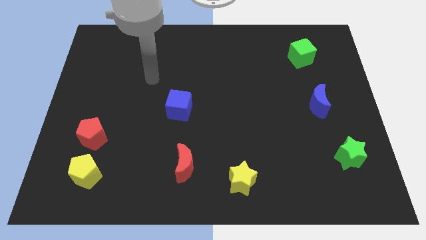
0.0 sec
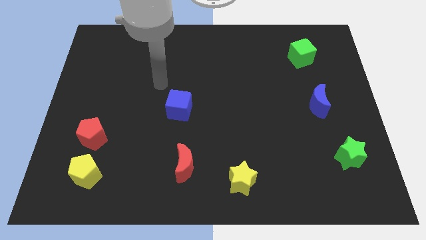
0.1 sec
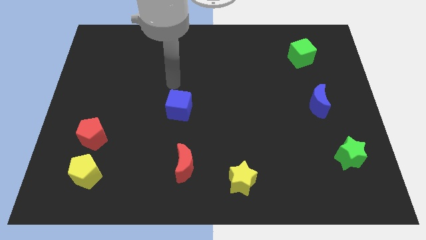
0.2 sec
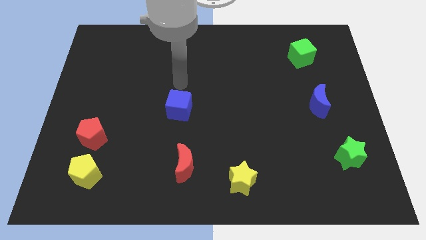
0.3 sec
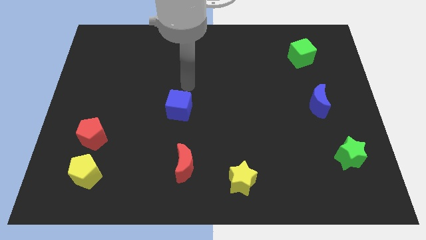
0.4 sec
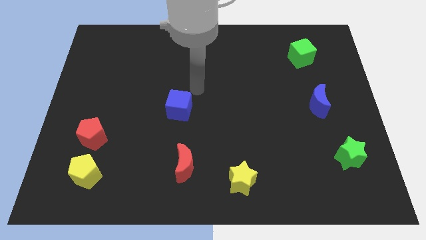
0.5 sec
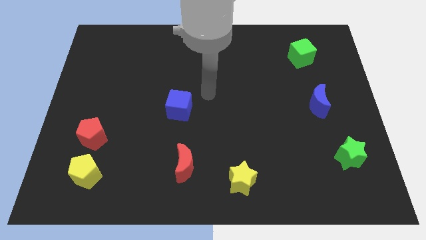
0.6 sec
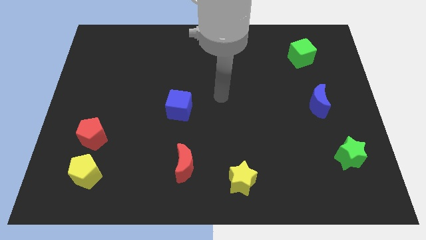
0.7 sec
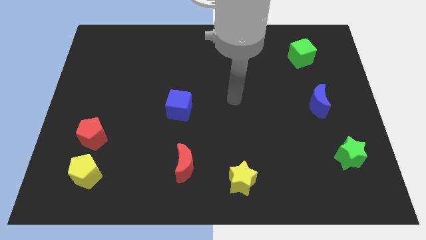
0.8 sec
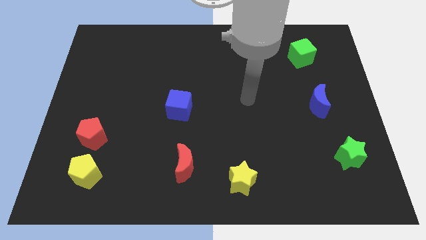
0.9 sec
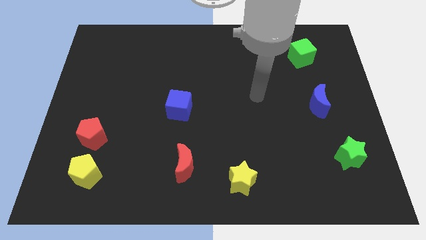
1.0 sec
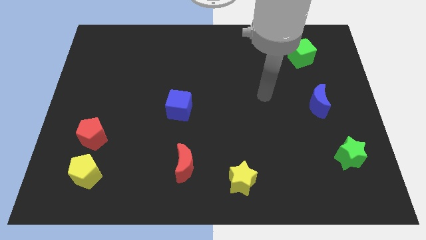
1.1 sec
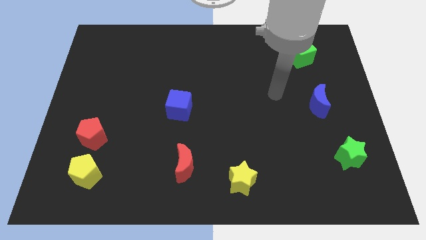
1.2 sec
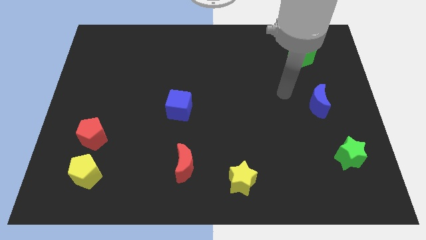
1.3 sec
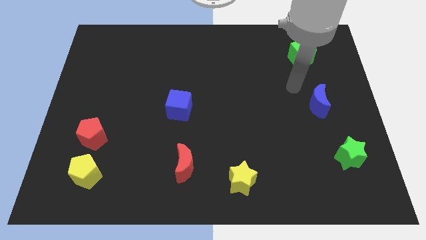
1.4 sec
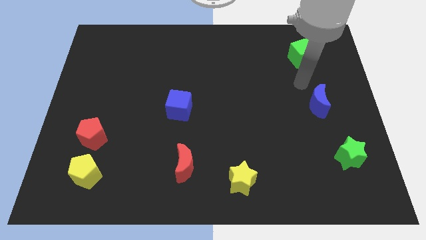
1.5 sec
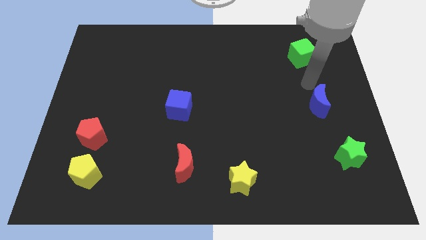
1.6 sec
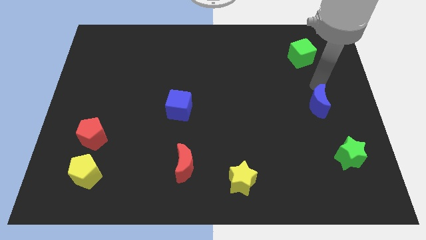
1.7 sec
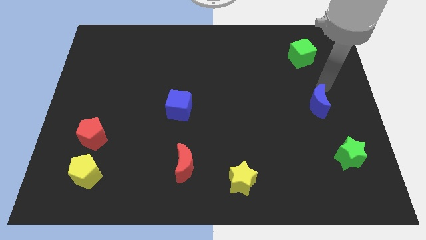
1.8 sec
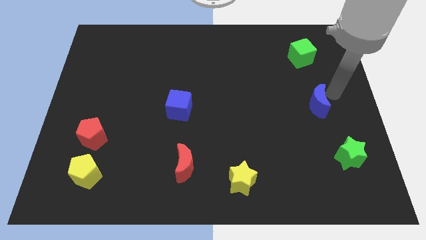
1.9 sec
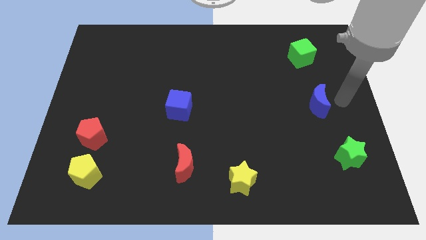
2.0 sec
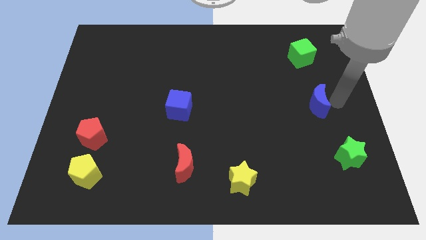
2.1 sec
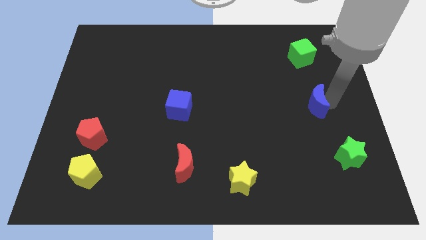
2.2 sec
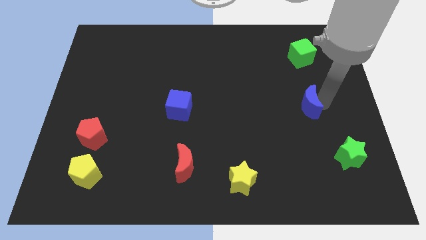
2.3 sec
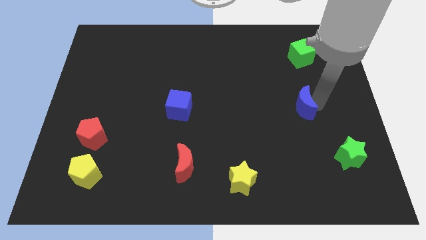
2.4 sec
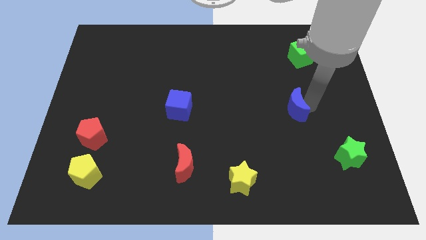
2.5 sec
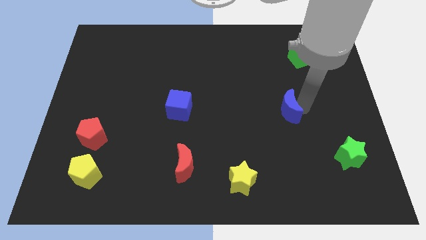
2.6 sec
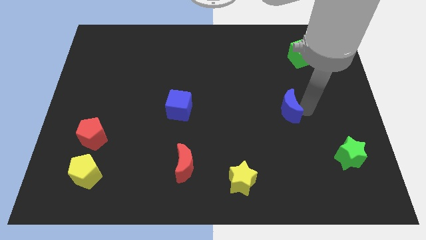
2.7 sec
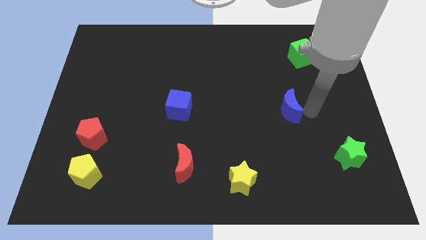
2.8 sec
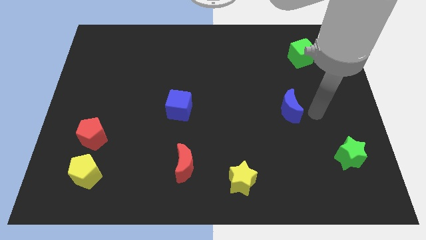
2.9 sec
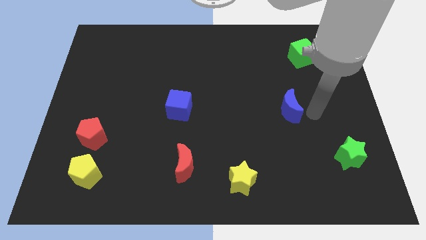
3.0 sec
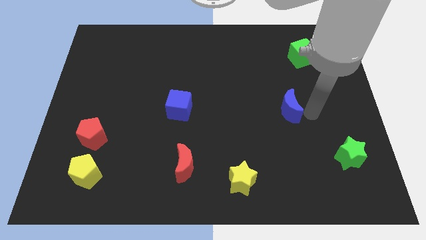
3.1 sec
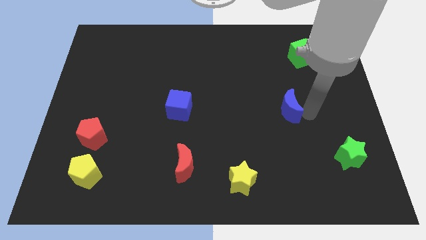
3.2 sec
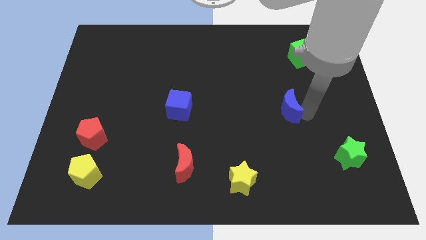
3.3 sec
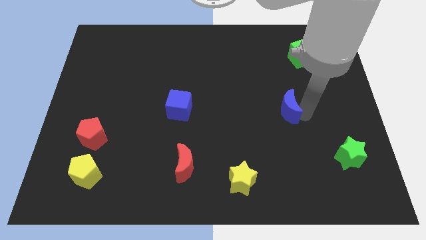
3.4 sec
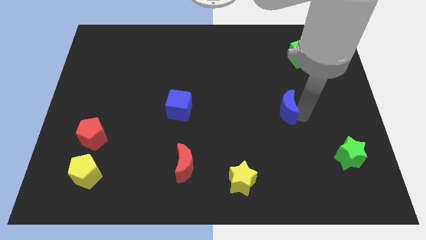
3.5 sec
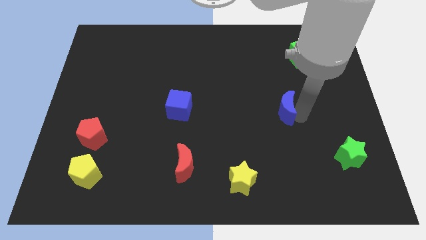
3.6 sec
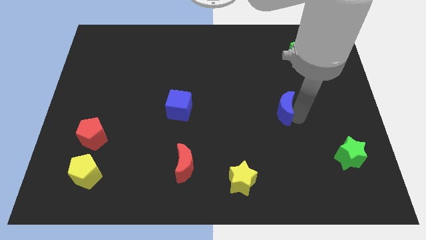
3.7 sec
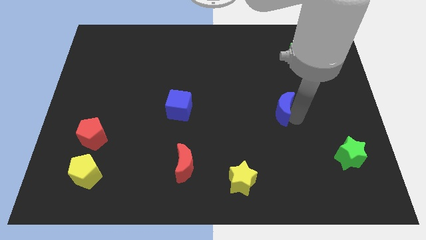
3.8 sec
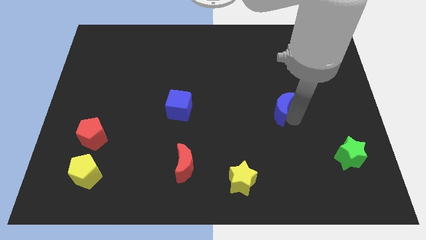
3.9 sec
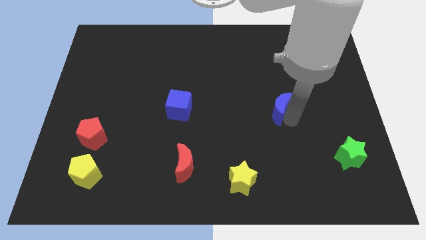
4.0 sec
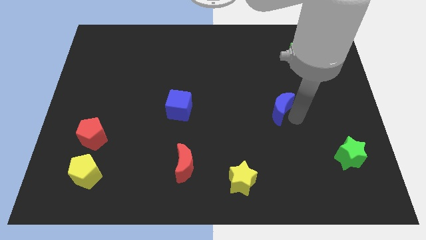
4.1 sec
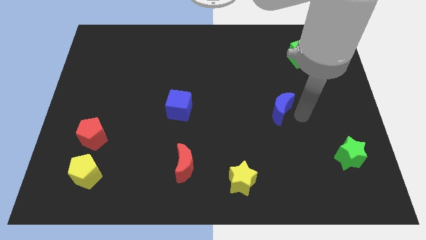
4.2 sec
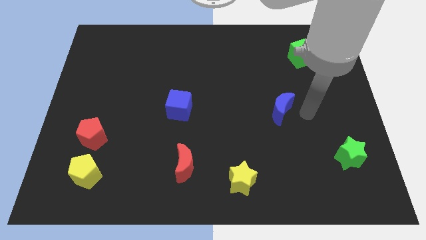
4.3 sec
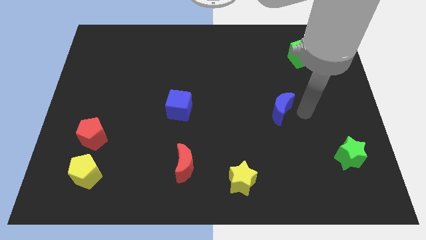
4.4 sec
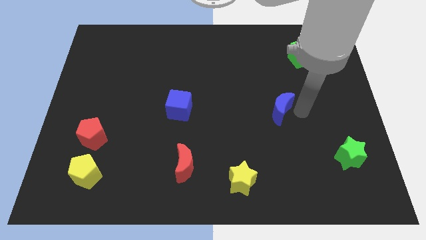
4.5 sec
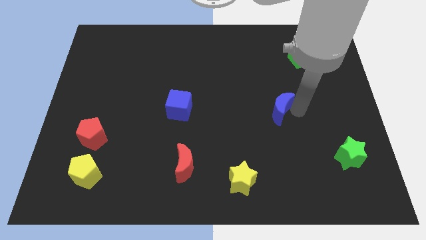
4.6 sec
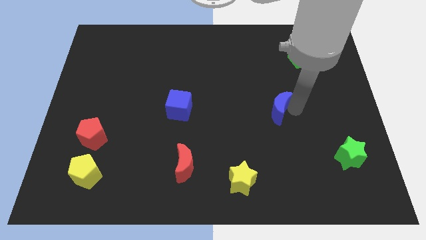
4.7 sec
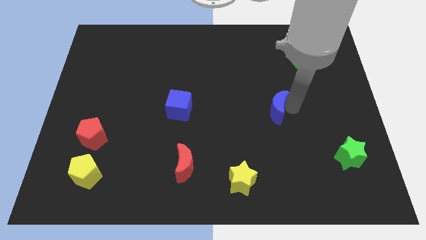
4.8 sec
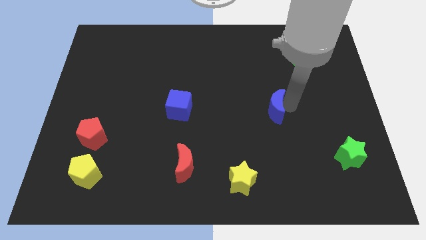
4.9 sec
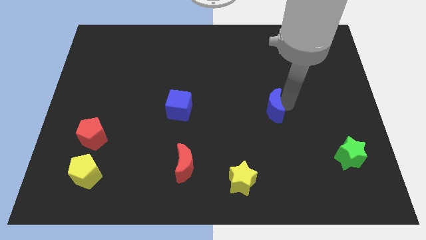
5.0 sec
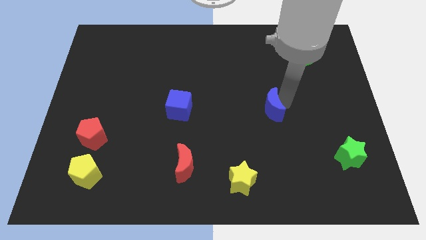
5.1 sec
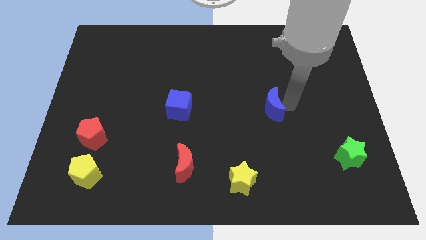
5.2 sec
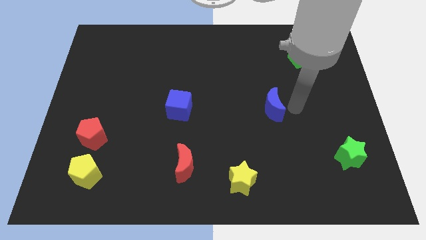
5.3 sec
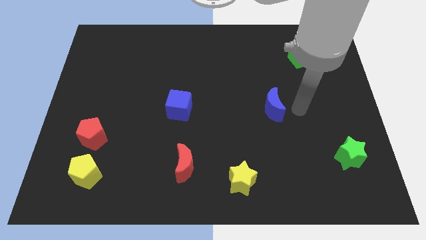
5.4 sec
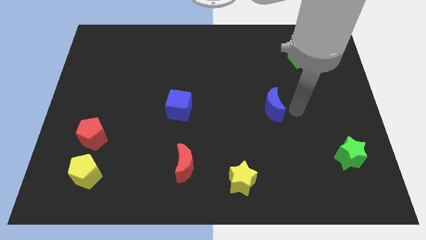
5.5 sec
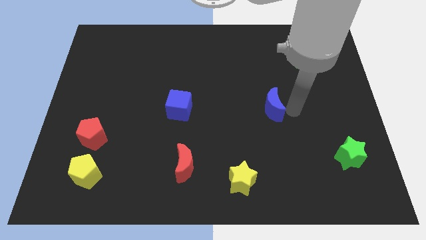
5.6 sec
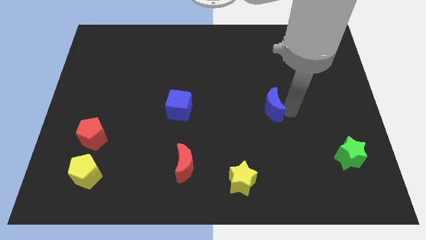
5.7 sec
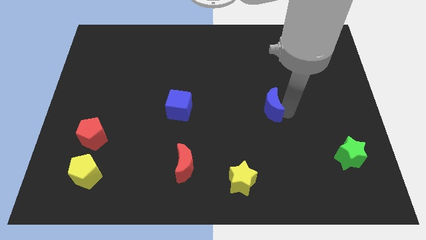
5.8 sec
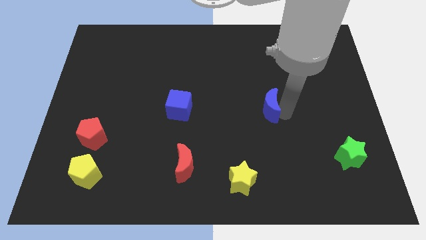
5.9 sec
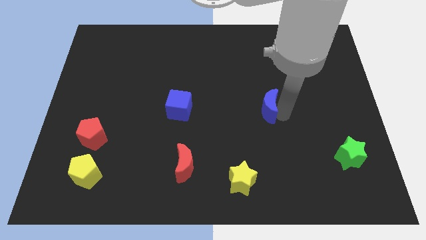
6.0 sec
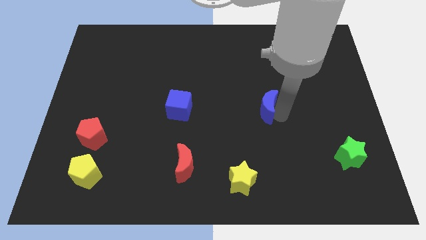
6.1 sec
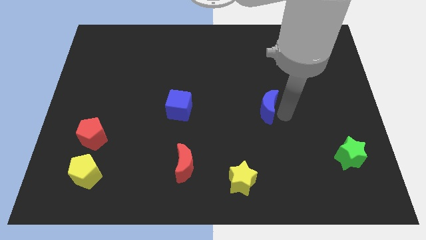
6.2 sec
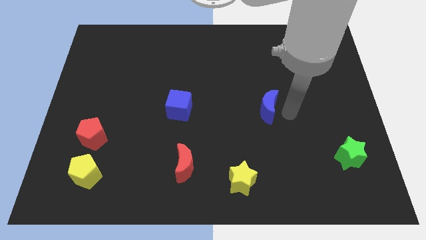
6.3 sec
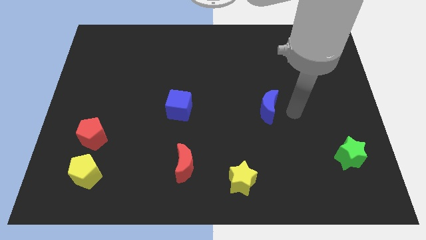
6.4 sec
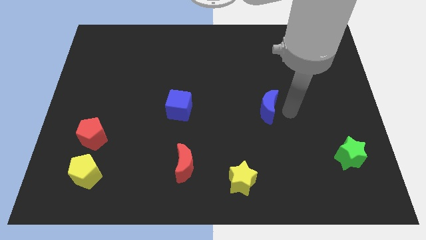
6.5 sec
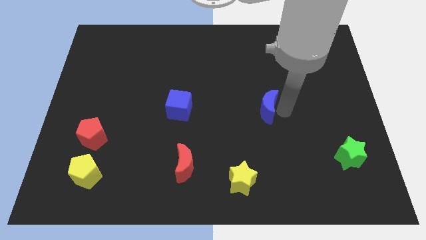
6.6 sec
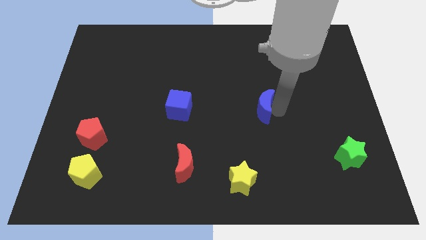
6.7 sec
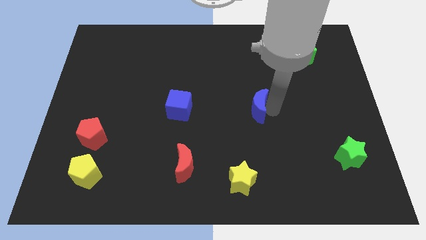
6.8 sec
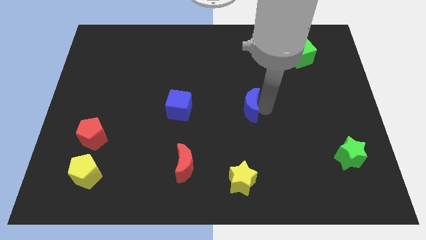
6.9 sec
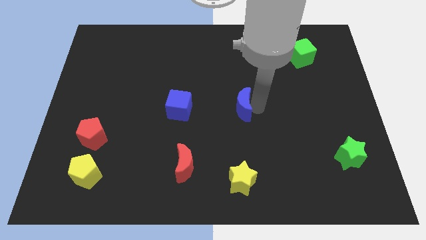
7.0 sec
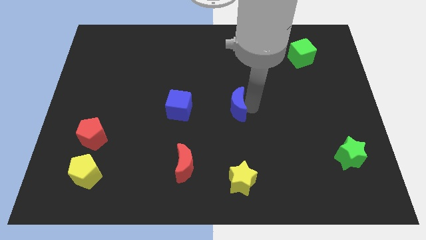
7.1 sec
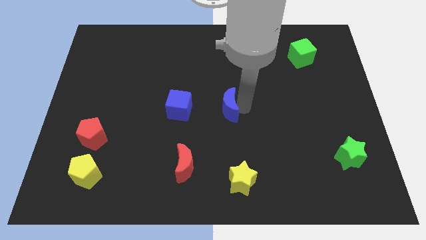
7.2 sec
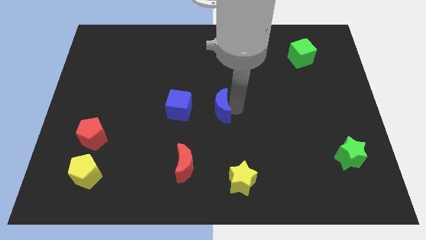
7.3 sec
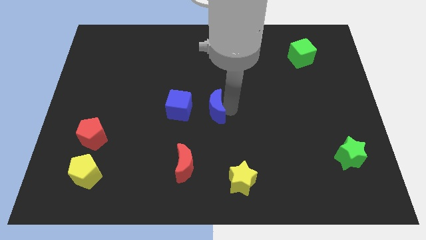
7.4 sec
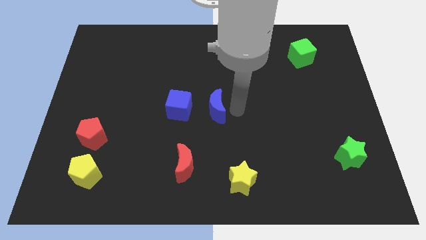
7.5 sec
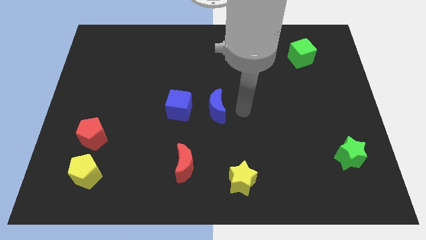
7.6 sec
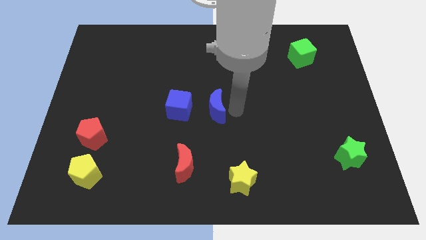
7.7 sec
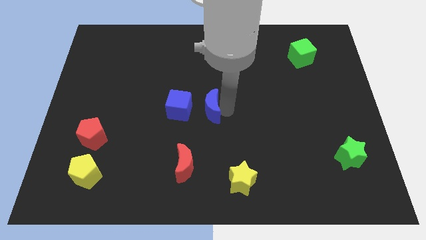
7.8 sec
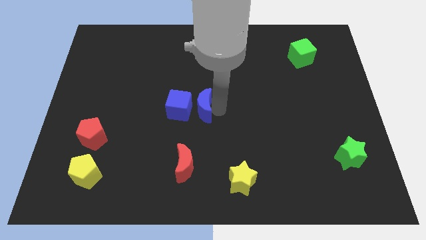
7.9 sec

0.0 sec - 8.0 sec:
put the blue moon to the blue cube
